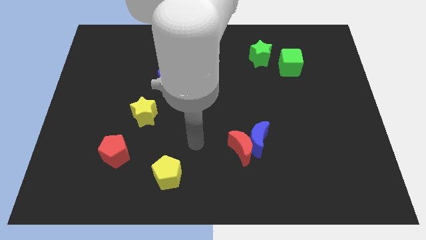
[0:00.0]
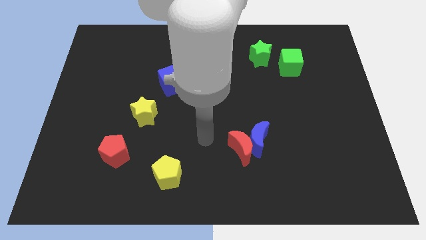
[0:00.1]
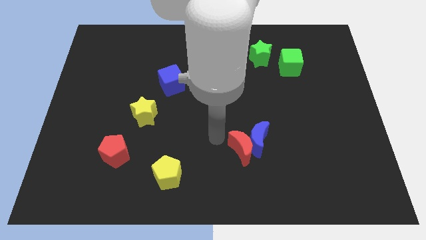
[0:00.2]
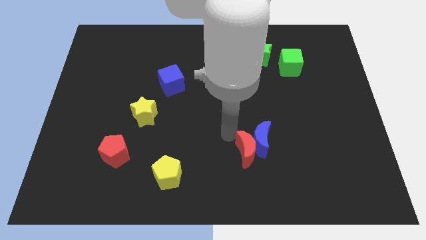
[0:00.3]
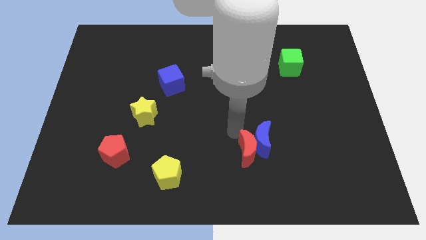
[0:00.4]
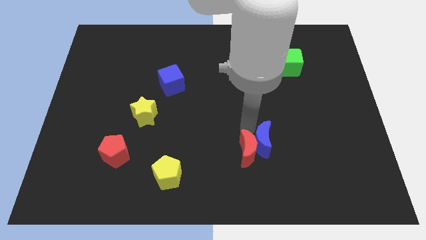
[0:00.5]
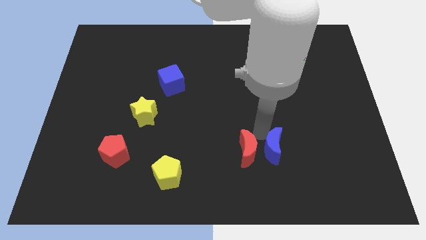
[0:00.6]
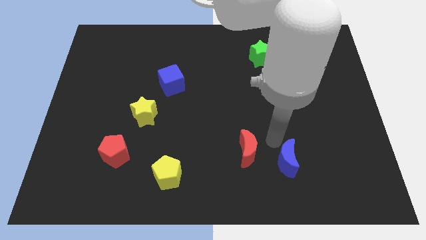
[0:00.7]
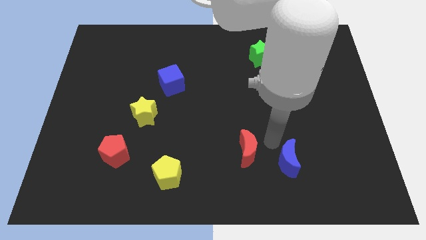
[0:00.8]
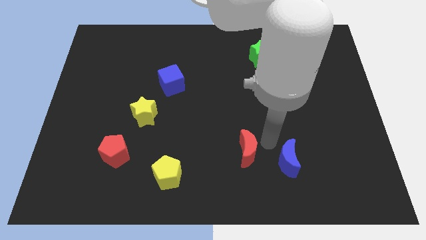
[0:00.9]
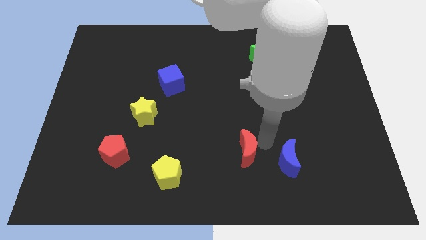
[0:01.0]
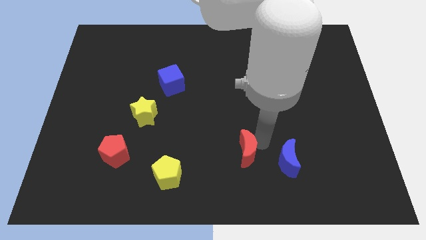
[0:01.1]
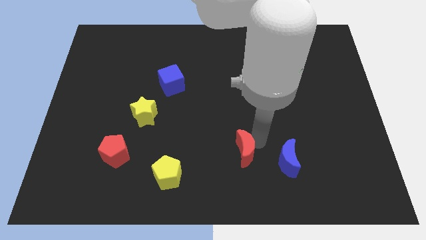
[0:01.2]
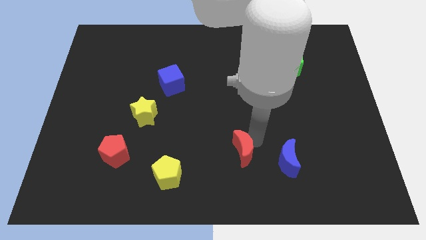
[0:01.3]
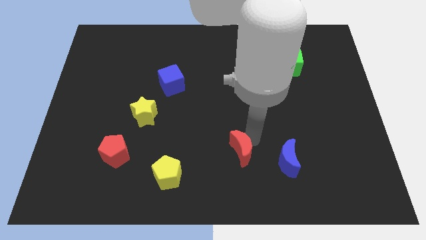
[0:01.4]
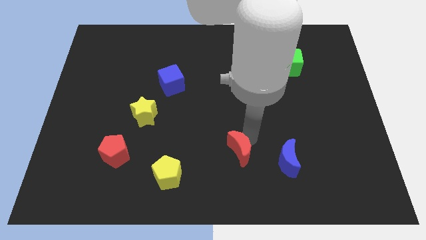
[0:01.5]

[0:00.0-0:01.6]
separate the red moon from the blue moon

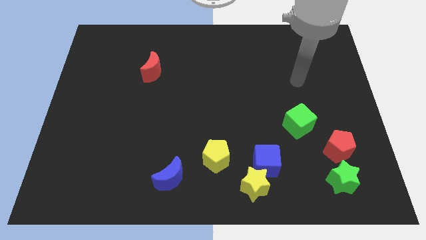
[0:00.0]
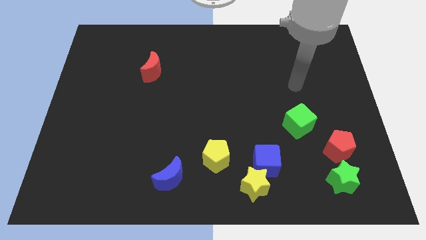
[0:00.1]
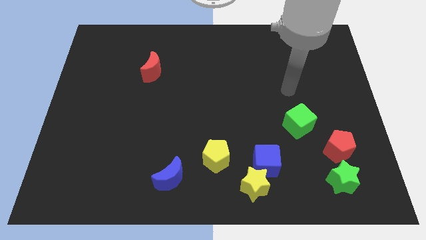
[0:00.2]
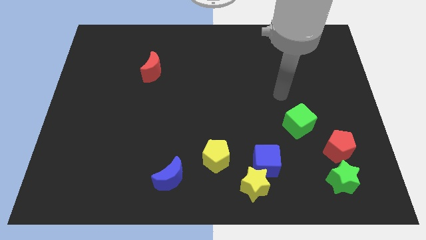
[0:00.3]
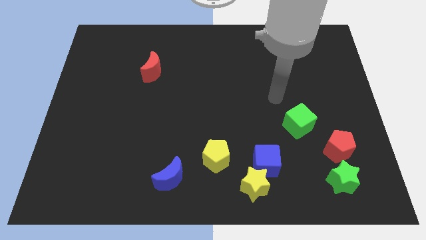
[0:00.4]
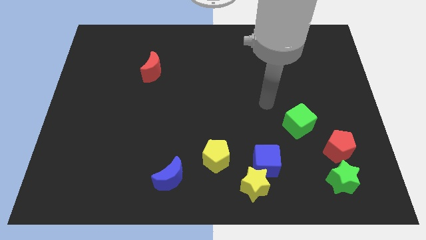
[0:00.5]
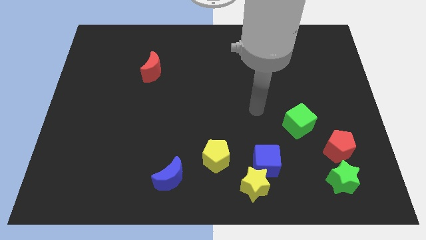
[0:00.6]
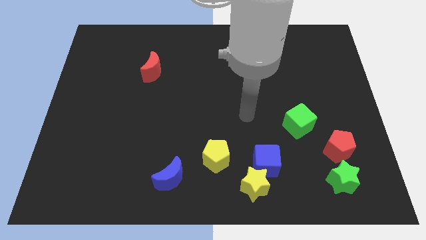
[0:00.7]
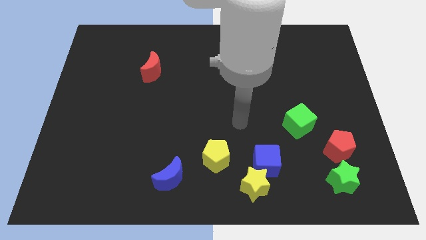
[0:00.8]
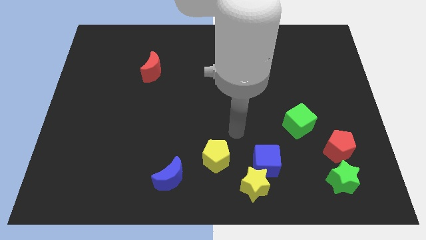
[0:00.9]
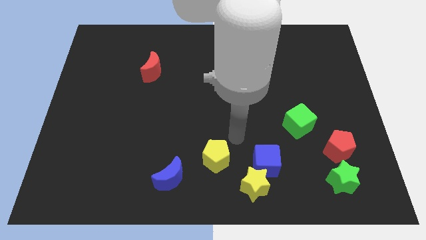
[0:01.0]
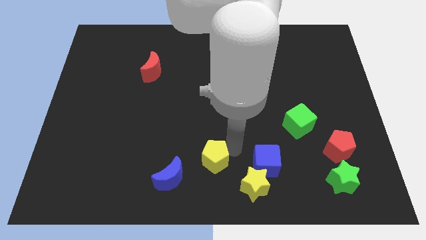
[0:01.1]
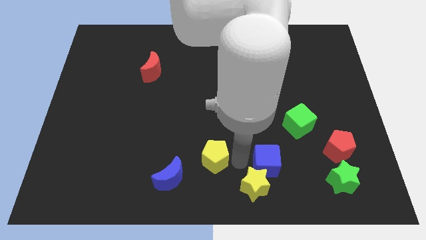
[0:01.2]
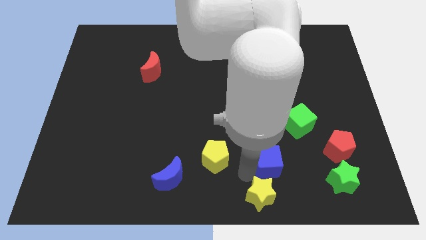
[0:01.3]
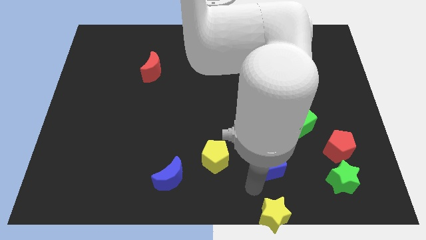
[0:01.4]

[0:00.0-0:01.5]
separate the blue cube from the yellow star

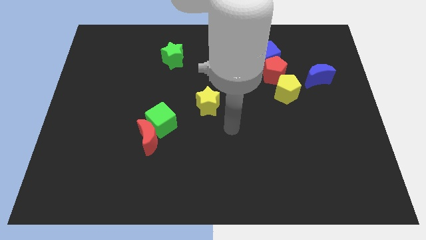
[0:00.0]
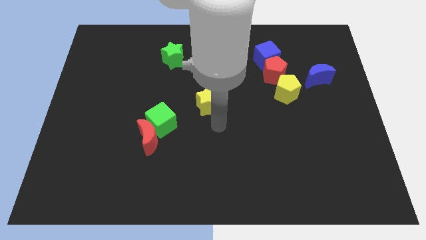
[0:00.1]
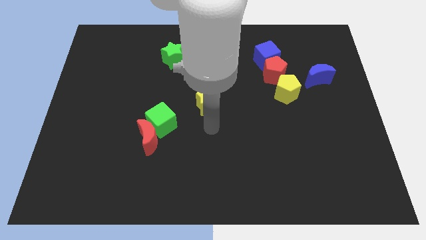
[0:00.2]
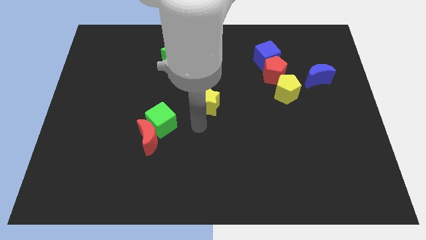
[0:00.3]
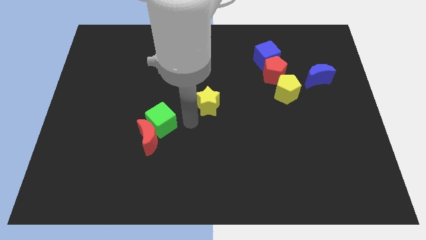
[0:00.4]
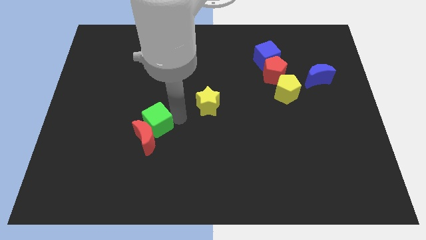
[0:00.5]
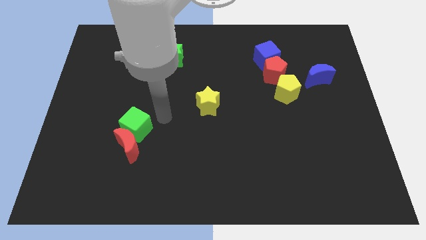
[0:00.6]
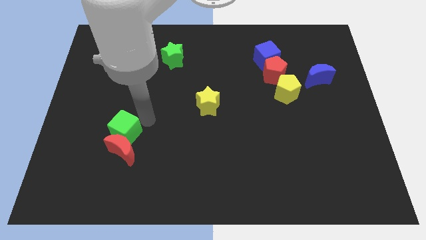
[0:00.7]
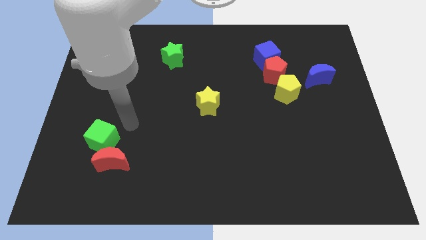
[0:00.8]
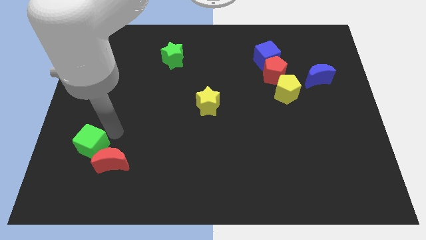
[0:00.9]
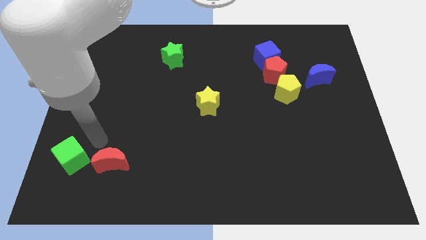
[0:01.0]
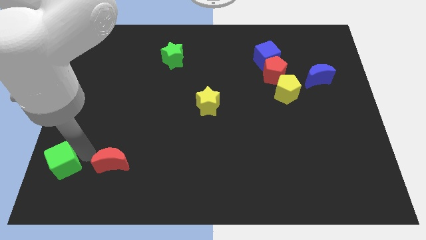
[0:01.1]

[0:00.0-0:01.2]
separate the red moon from the green cube

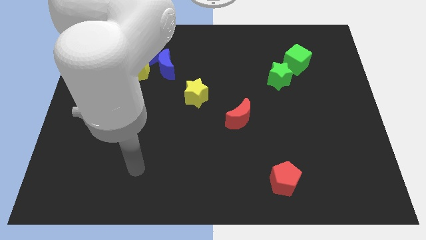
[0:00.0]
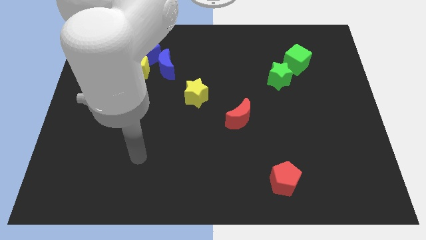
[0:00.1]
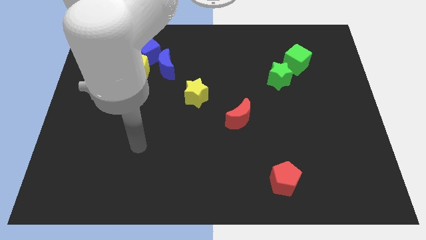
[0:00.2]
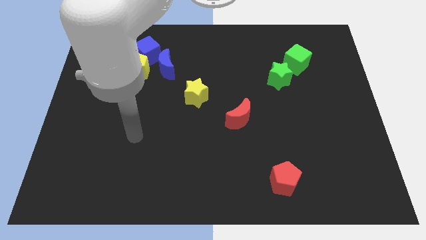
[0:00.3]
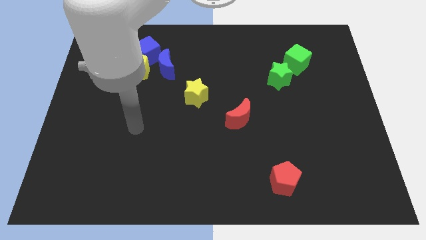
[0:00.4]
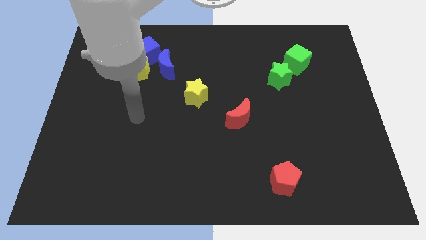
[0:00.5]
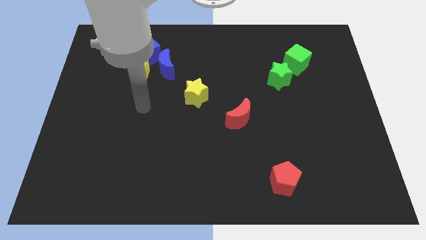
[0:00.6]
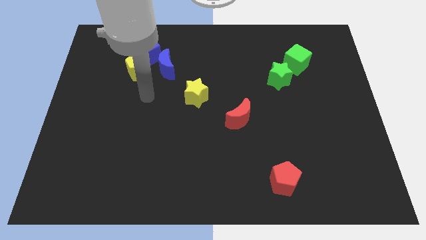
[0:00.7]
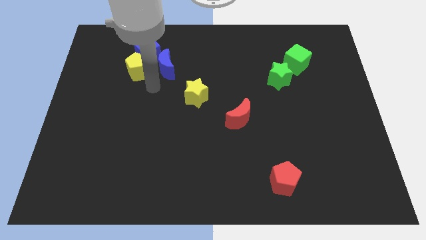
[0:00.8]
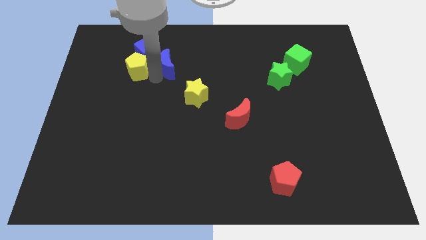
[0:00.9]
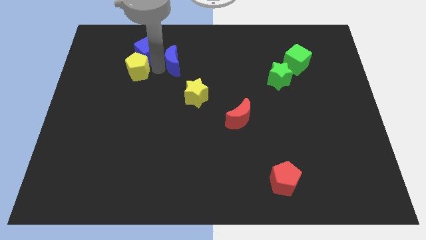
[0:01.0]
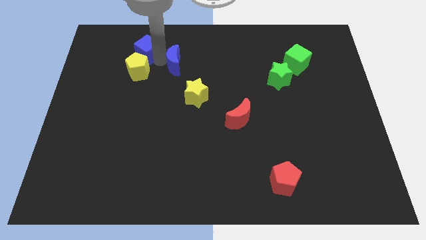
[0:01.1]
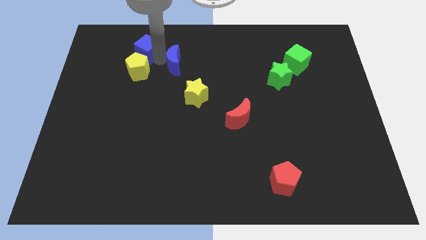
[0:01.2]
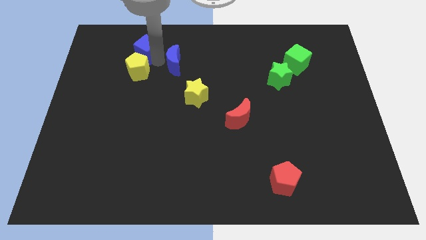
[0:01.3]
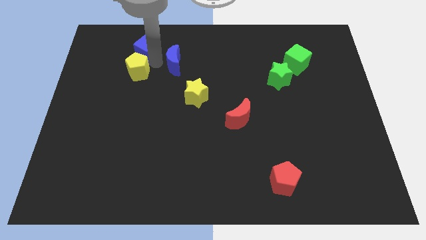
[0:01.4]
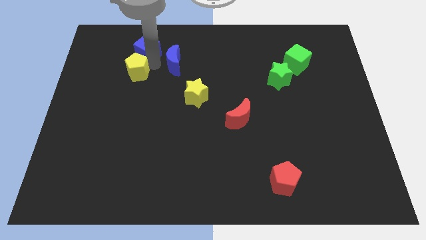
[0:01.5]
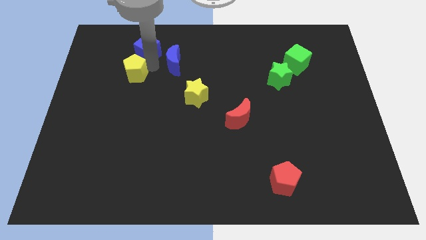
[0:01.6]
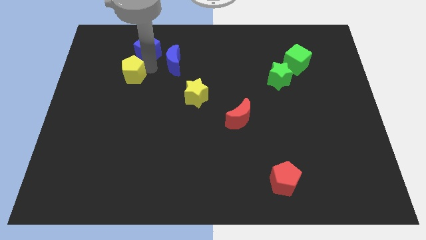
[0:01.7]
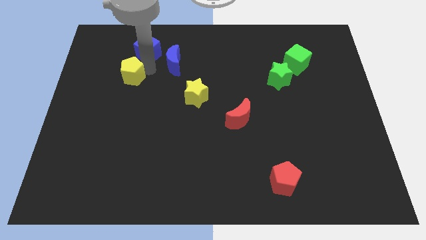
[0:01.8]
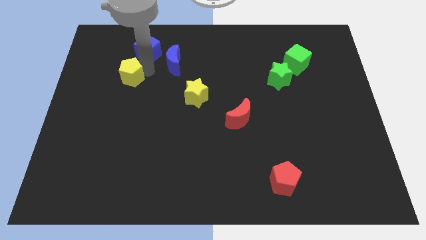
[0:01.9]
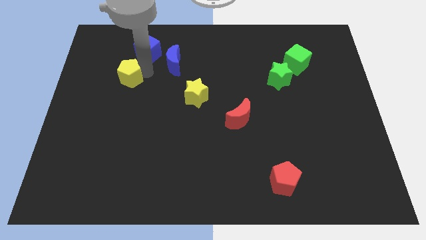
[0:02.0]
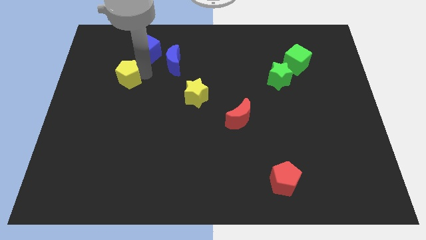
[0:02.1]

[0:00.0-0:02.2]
move the yellow pentagon away from the blue cube and blue moon

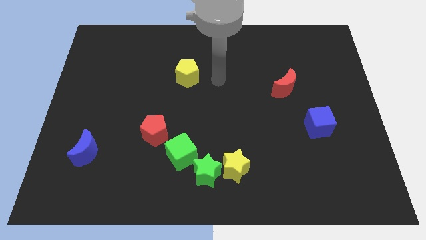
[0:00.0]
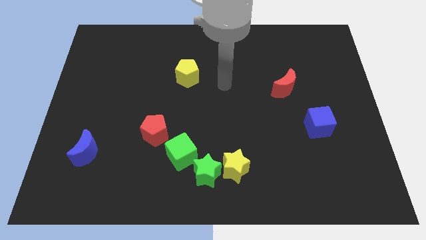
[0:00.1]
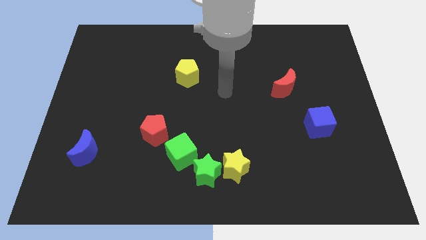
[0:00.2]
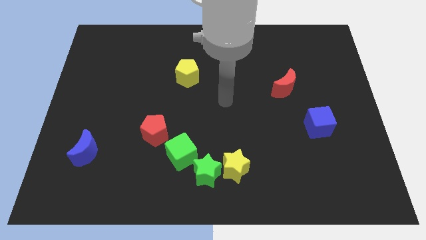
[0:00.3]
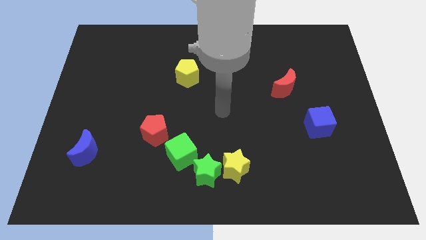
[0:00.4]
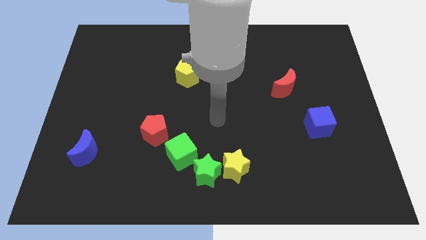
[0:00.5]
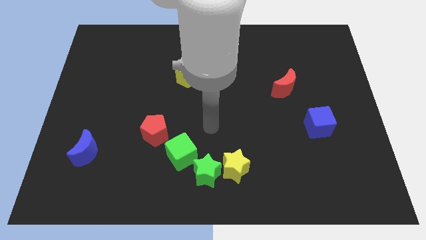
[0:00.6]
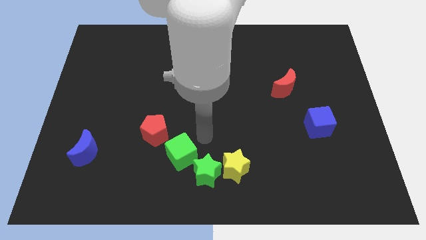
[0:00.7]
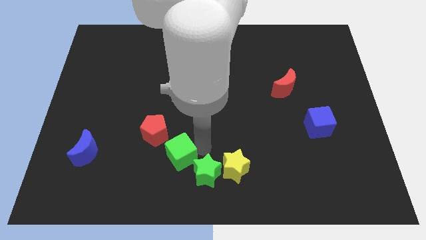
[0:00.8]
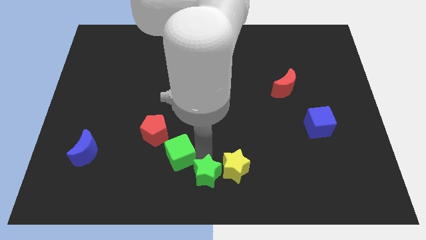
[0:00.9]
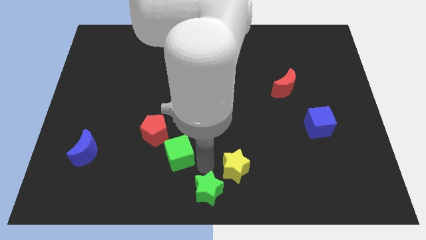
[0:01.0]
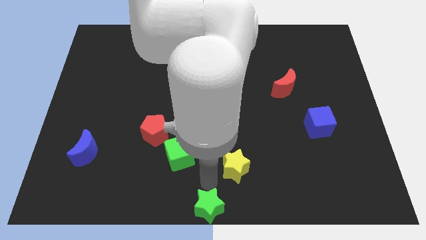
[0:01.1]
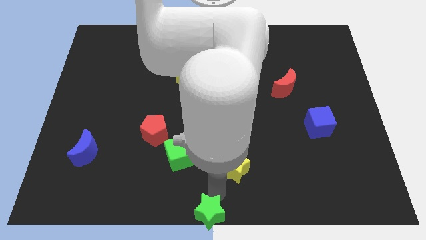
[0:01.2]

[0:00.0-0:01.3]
move the yellow star away from the green star

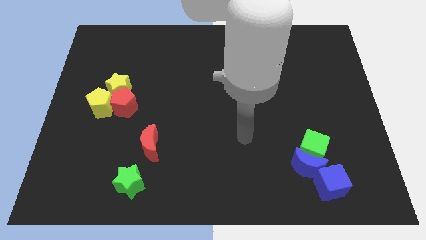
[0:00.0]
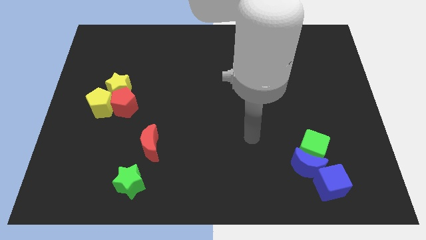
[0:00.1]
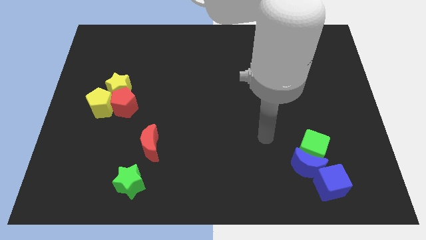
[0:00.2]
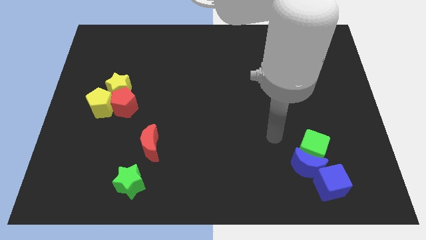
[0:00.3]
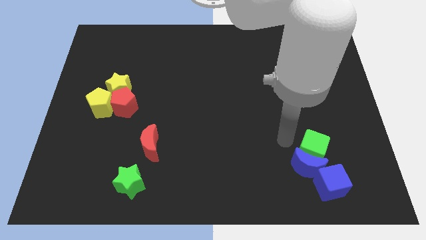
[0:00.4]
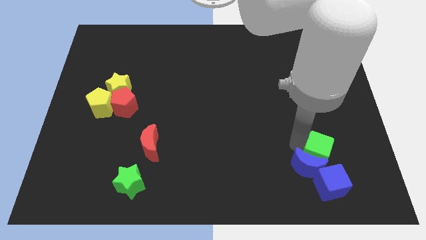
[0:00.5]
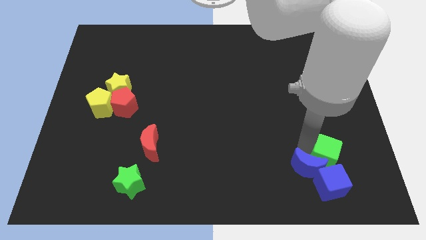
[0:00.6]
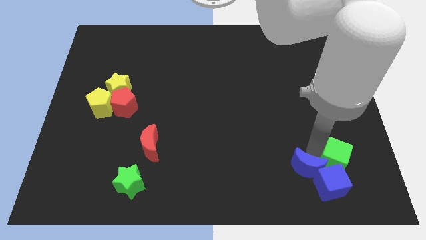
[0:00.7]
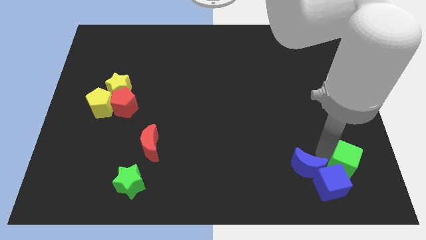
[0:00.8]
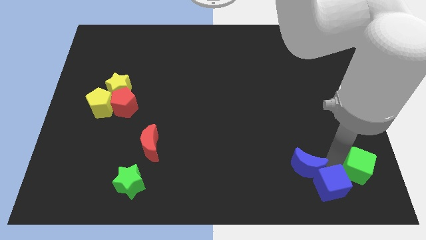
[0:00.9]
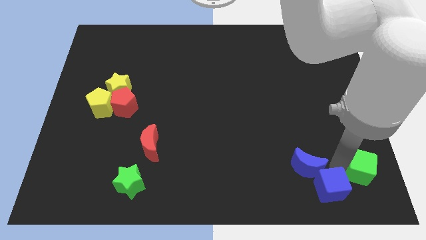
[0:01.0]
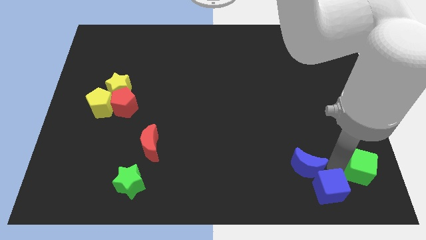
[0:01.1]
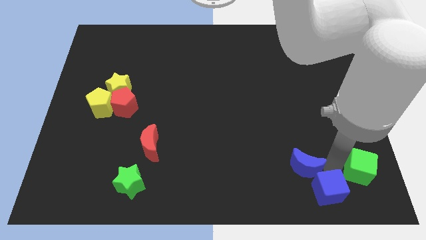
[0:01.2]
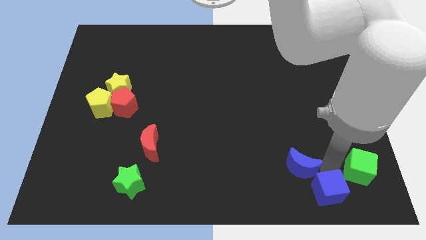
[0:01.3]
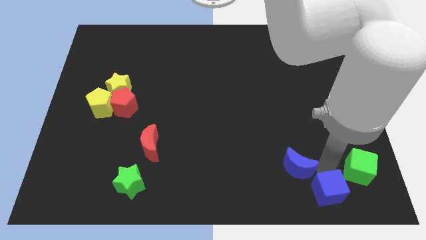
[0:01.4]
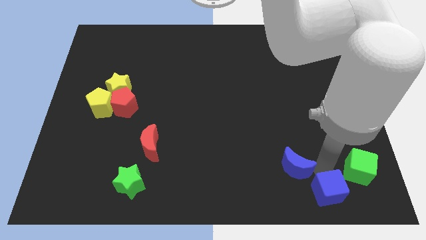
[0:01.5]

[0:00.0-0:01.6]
separate the blue moon from the green cube and blue cube
